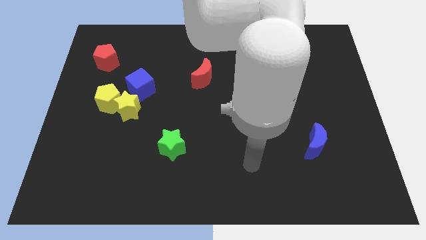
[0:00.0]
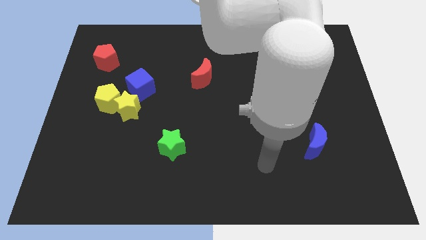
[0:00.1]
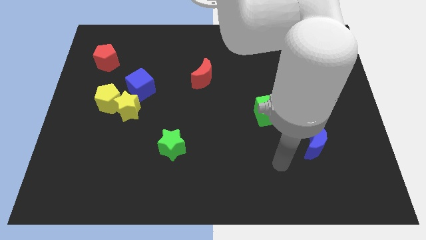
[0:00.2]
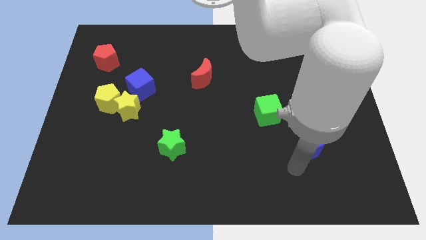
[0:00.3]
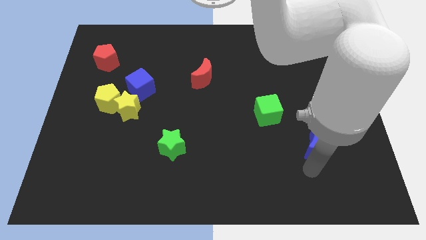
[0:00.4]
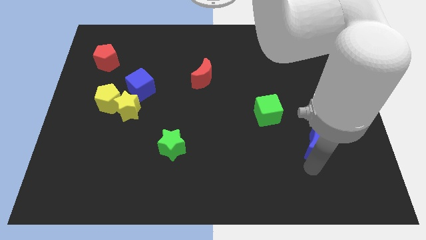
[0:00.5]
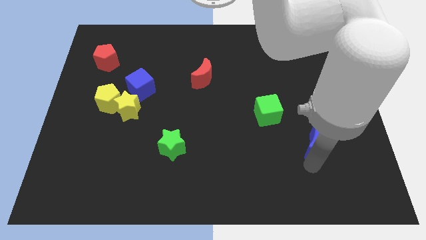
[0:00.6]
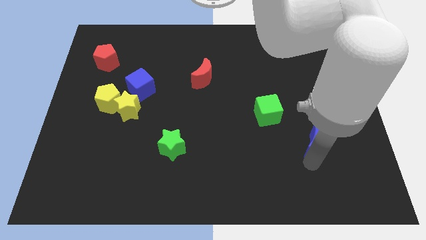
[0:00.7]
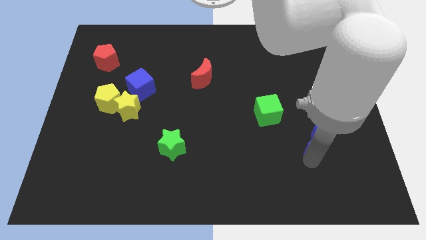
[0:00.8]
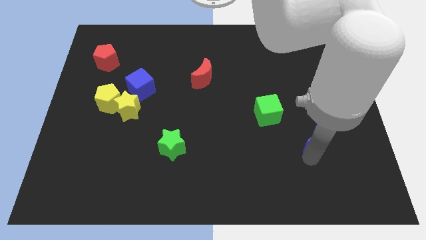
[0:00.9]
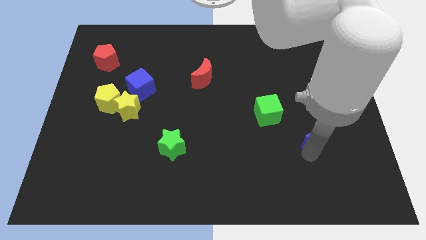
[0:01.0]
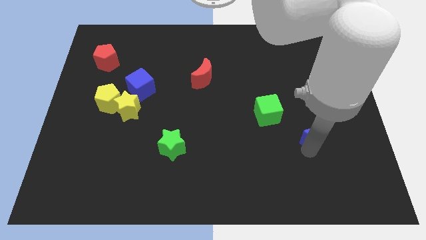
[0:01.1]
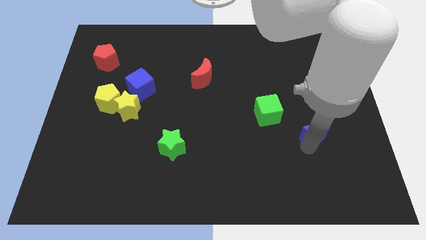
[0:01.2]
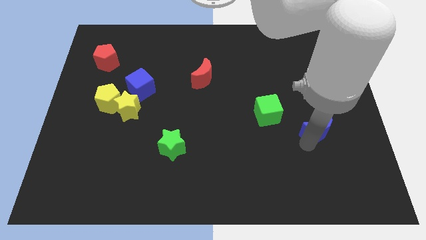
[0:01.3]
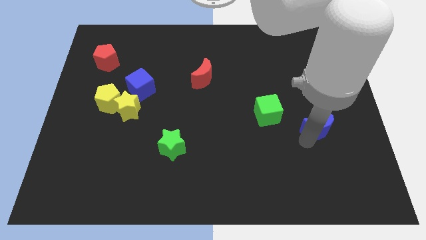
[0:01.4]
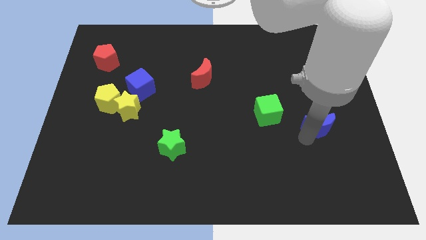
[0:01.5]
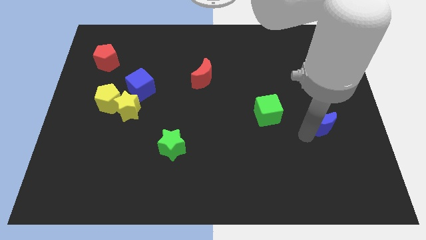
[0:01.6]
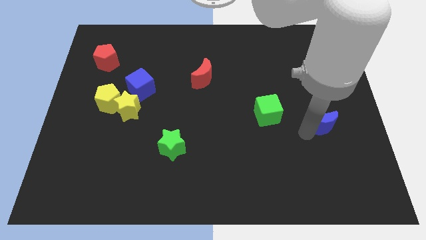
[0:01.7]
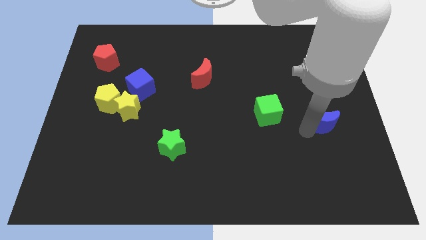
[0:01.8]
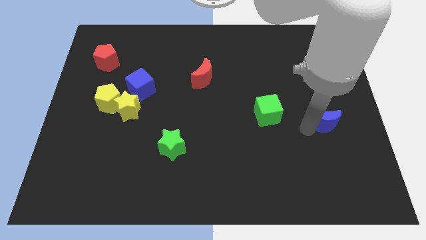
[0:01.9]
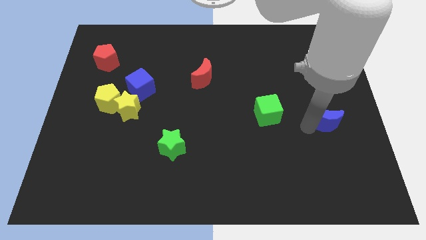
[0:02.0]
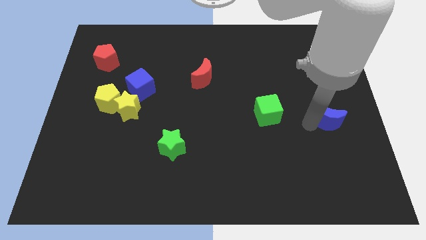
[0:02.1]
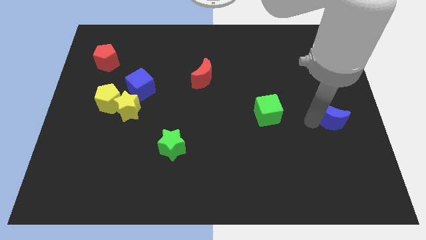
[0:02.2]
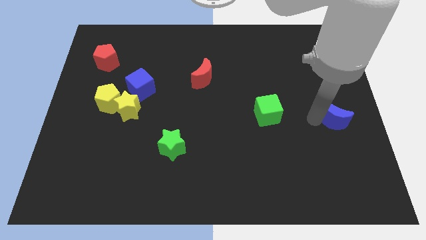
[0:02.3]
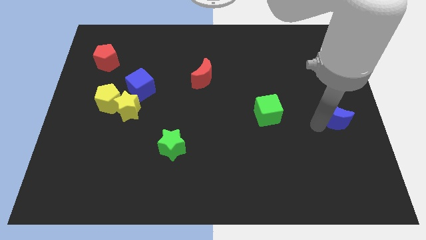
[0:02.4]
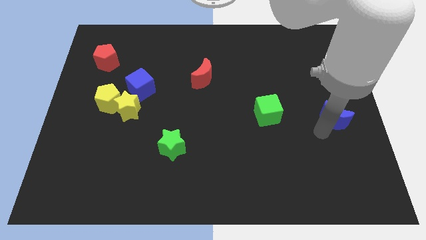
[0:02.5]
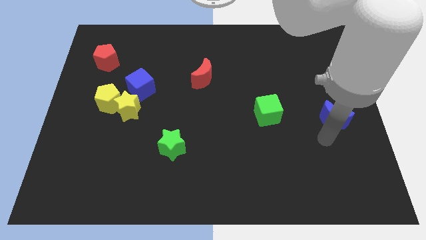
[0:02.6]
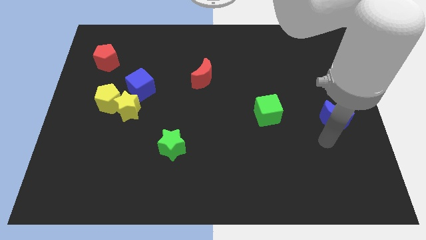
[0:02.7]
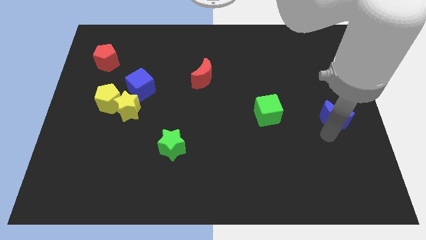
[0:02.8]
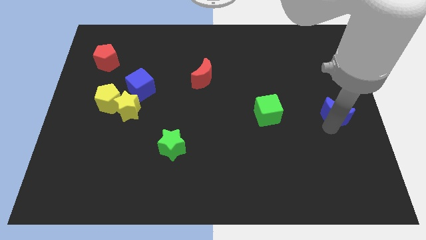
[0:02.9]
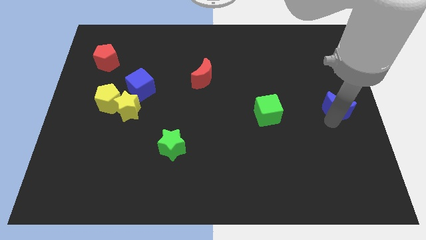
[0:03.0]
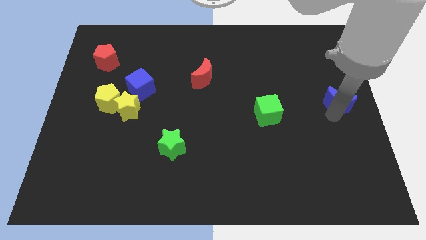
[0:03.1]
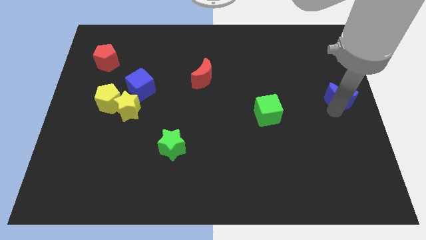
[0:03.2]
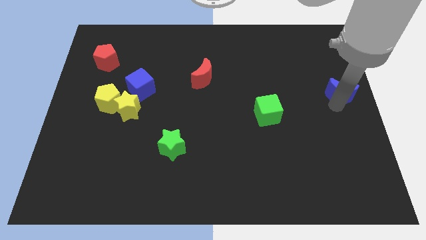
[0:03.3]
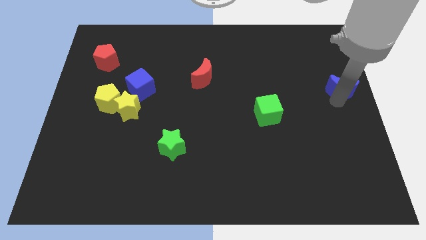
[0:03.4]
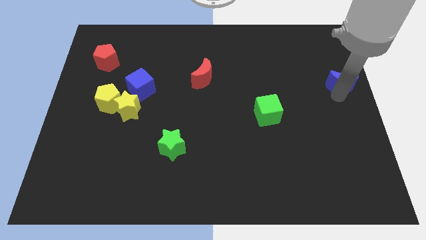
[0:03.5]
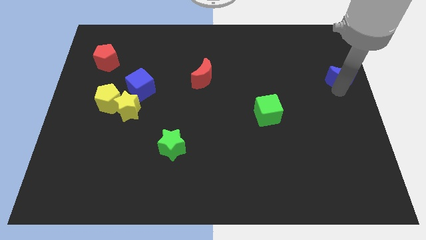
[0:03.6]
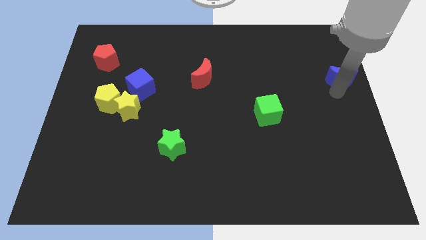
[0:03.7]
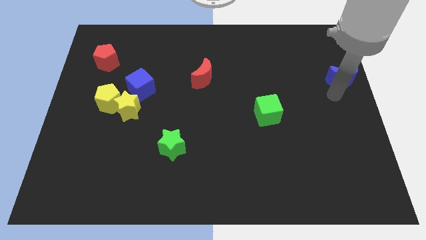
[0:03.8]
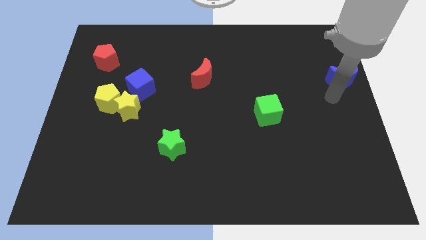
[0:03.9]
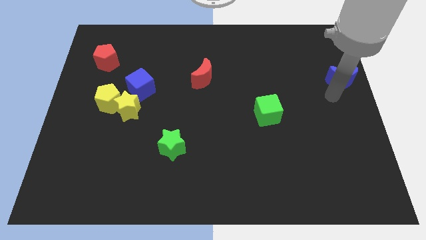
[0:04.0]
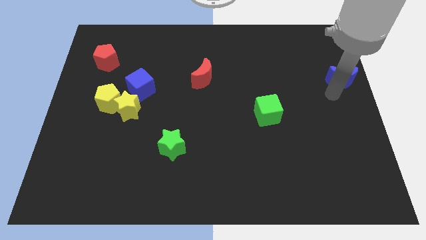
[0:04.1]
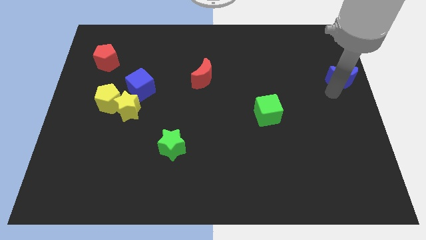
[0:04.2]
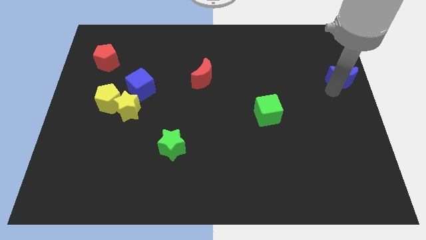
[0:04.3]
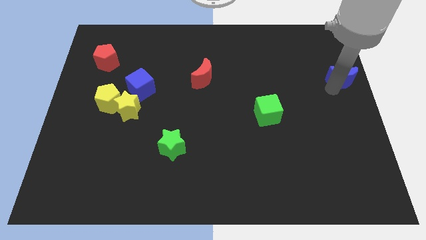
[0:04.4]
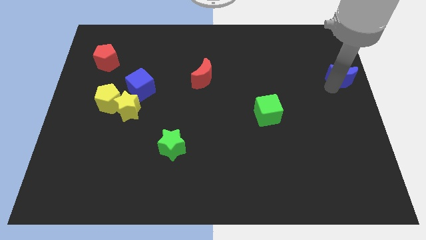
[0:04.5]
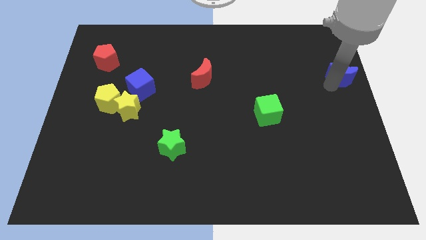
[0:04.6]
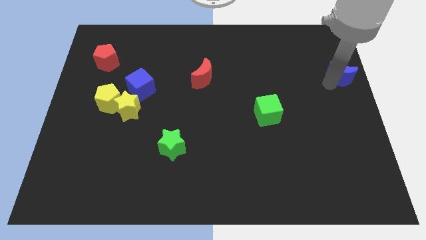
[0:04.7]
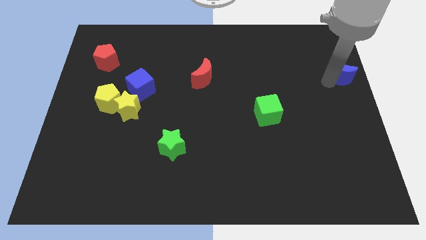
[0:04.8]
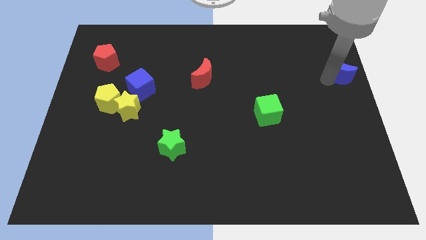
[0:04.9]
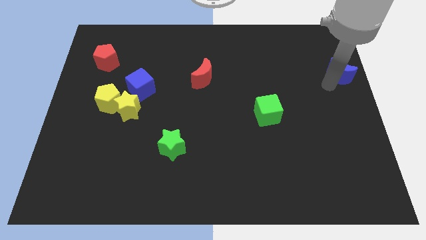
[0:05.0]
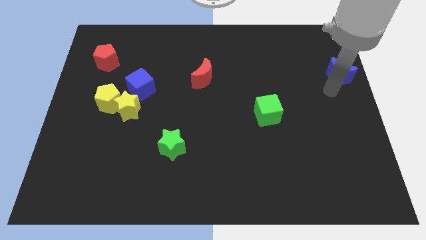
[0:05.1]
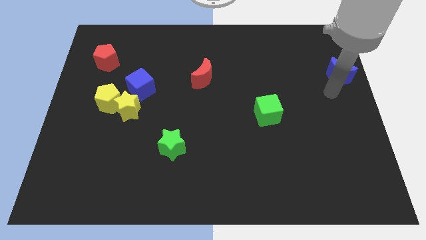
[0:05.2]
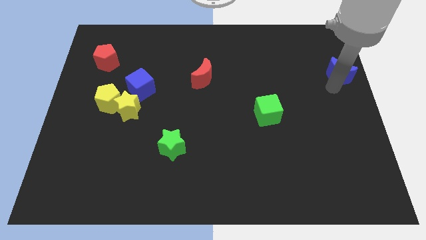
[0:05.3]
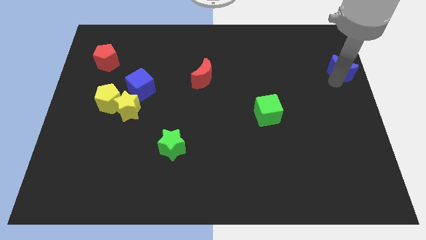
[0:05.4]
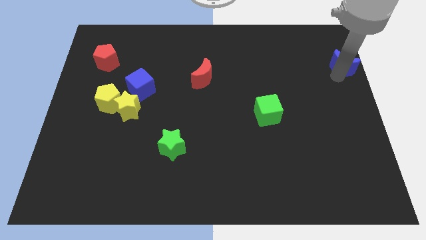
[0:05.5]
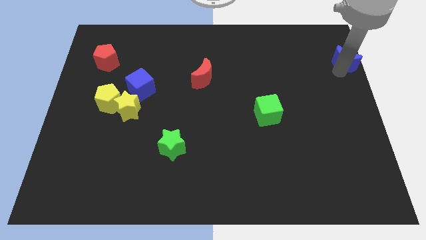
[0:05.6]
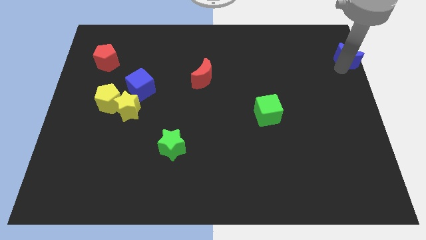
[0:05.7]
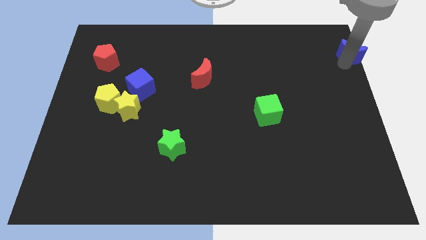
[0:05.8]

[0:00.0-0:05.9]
slide the blue moon to the top right corner

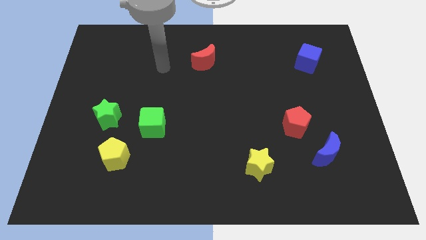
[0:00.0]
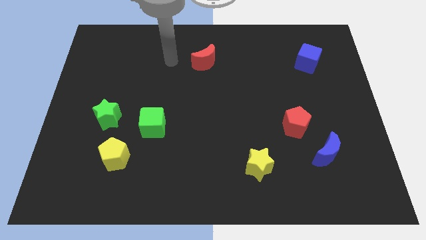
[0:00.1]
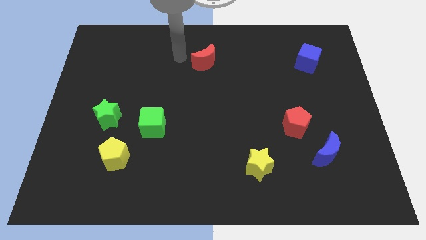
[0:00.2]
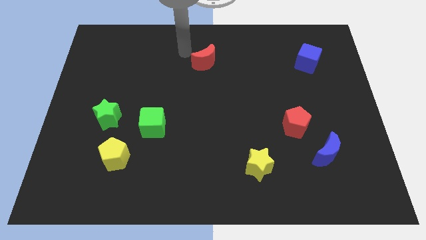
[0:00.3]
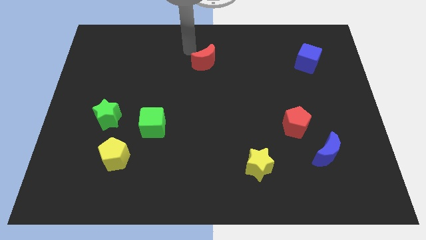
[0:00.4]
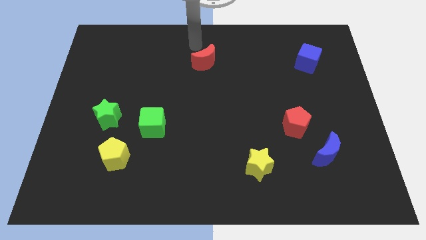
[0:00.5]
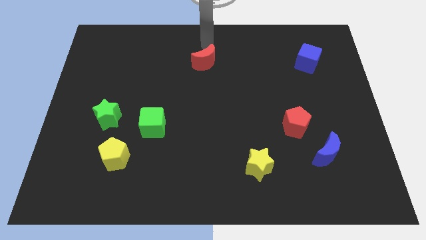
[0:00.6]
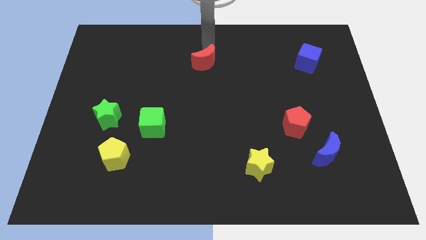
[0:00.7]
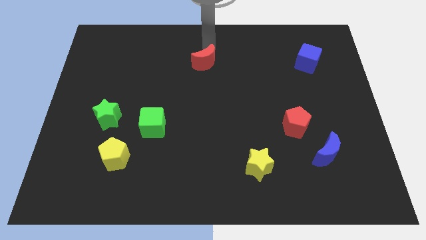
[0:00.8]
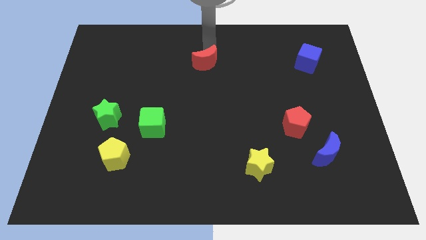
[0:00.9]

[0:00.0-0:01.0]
put the red moon to the middle of the board
